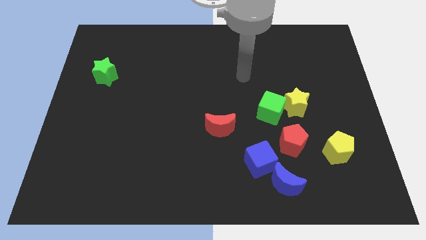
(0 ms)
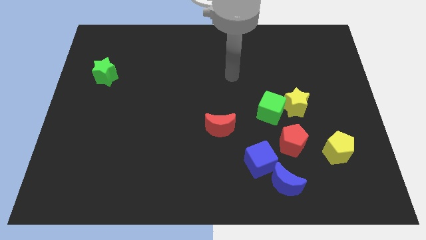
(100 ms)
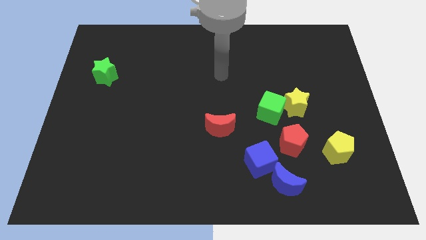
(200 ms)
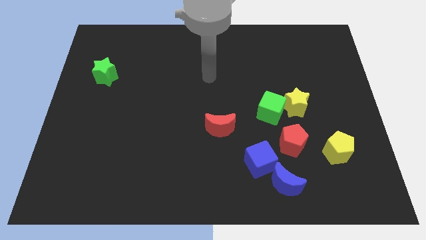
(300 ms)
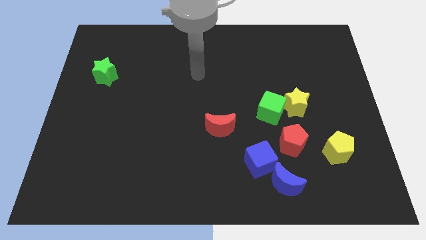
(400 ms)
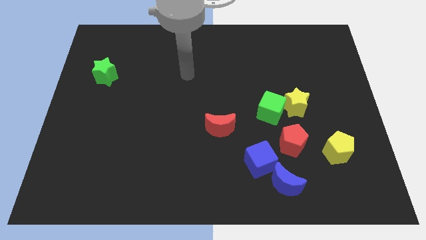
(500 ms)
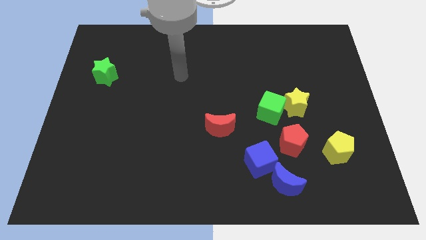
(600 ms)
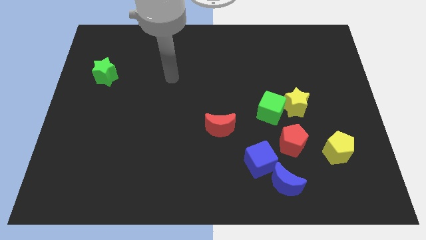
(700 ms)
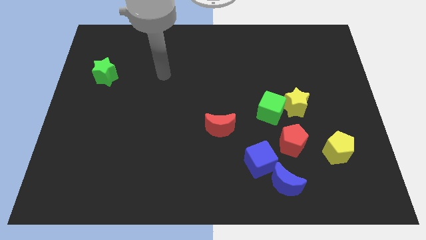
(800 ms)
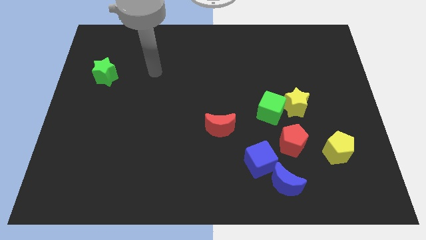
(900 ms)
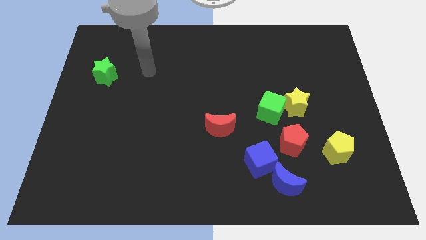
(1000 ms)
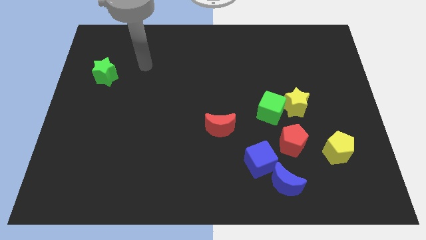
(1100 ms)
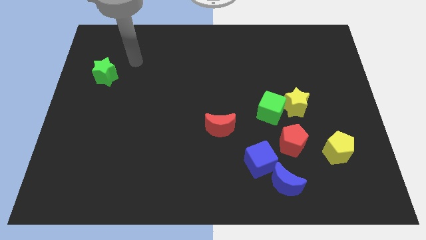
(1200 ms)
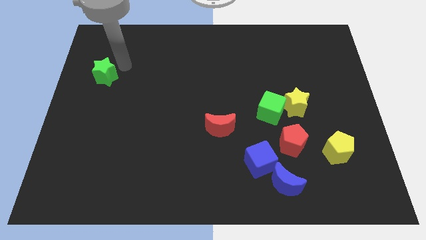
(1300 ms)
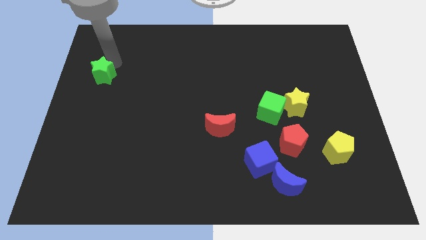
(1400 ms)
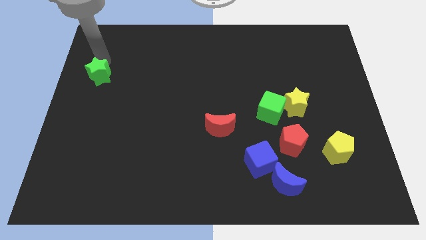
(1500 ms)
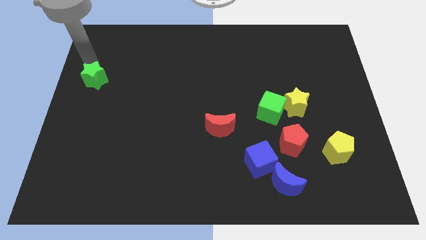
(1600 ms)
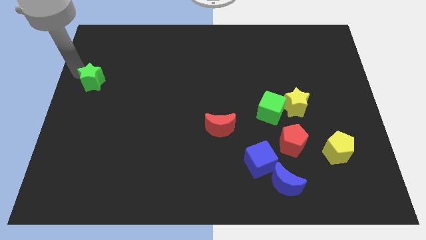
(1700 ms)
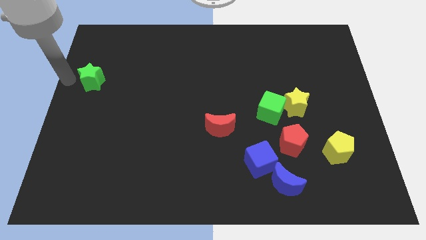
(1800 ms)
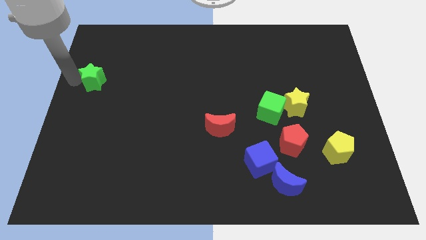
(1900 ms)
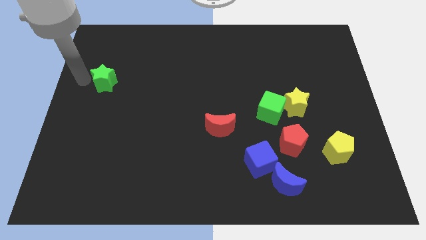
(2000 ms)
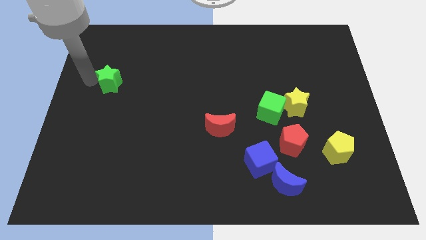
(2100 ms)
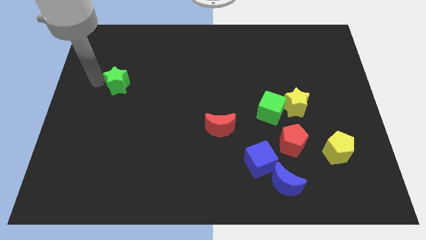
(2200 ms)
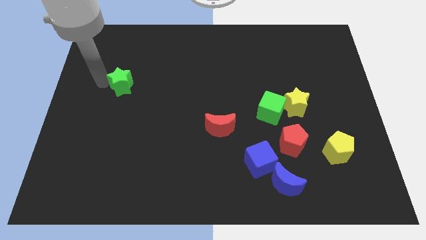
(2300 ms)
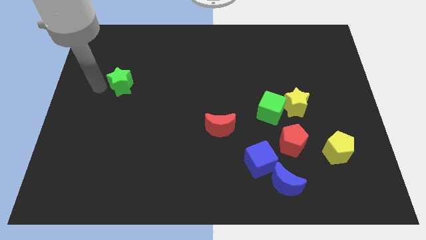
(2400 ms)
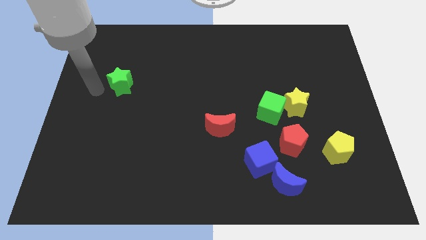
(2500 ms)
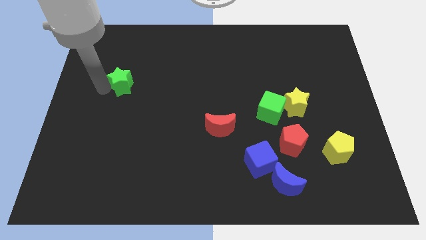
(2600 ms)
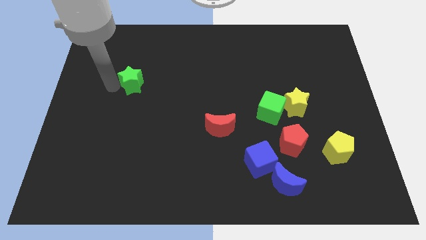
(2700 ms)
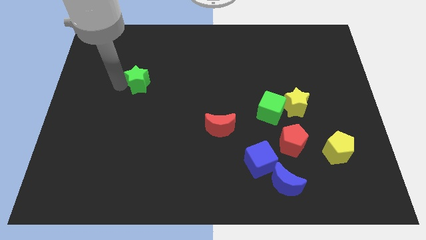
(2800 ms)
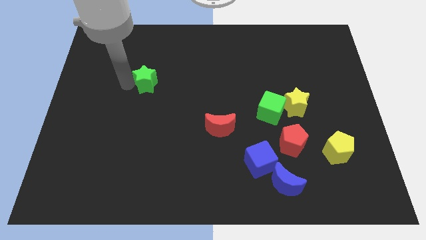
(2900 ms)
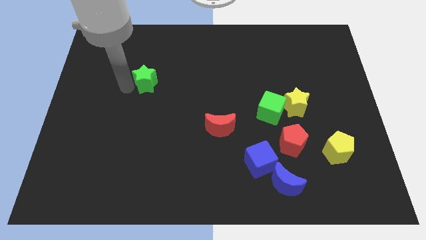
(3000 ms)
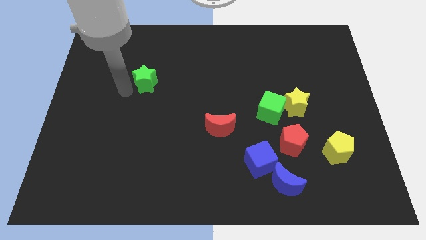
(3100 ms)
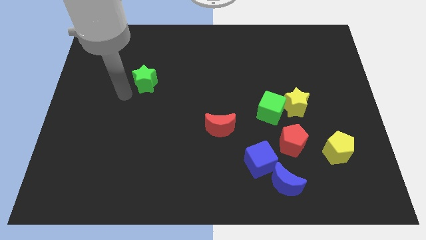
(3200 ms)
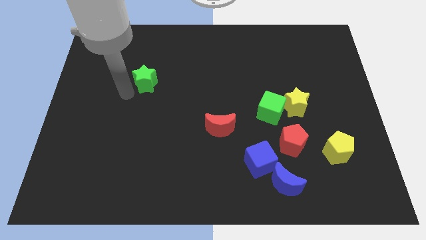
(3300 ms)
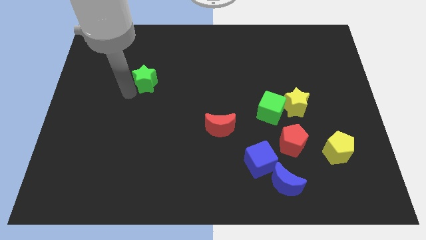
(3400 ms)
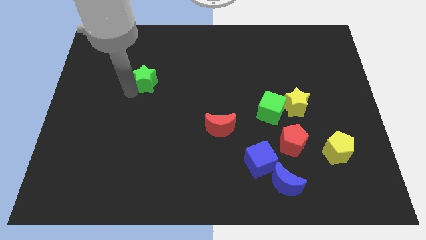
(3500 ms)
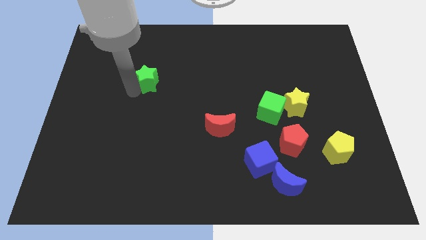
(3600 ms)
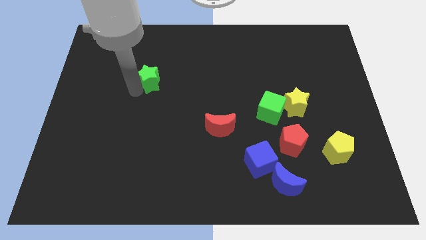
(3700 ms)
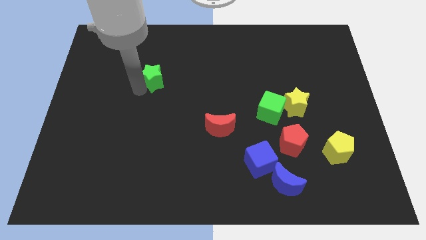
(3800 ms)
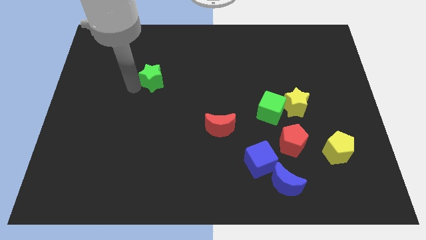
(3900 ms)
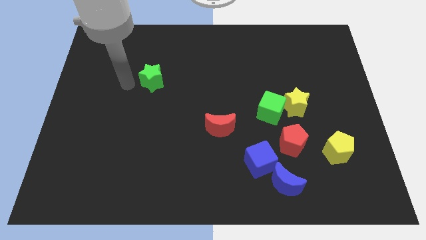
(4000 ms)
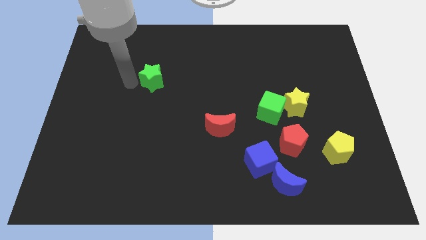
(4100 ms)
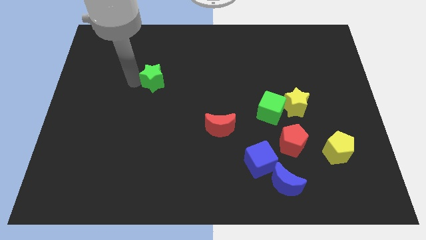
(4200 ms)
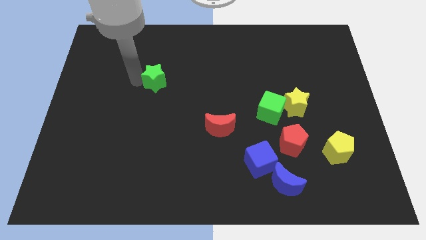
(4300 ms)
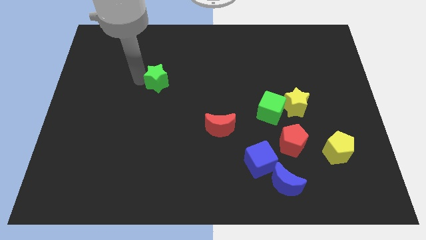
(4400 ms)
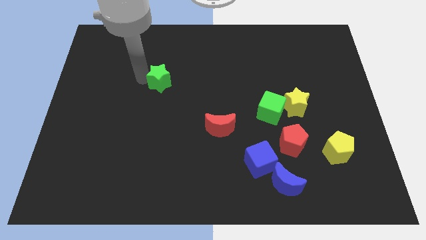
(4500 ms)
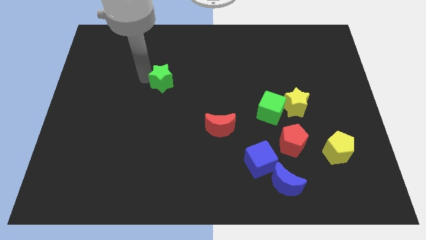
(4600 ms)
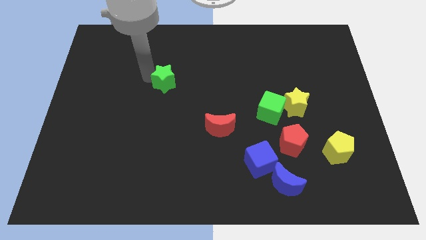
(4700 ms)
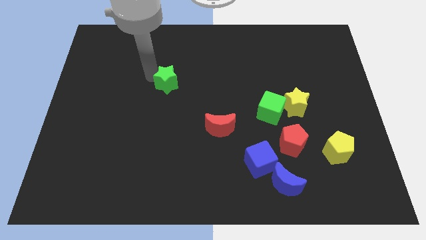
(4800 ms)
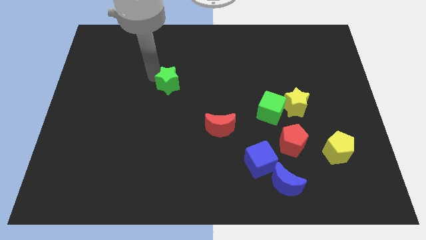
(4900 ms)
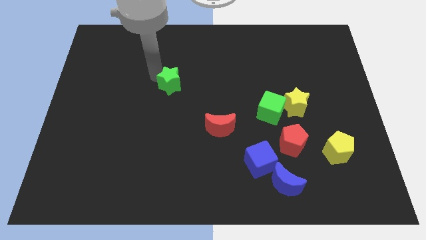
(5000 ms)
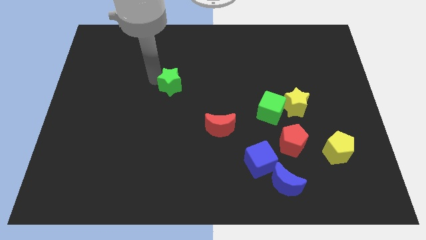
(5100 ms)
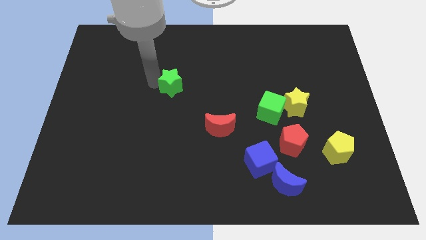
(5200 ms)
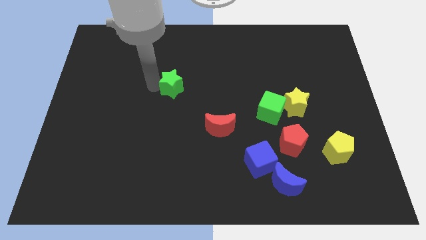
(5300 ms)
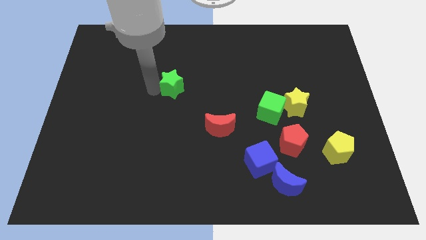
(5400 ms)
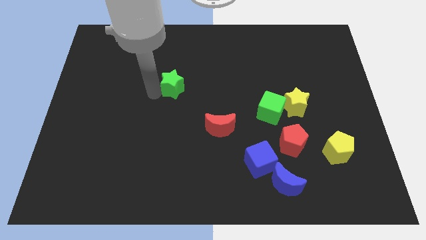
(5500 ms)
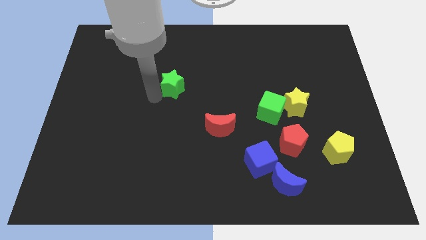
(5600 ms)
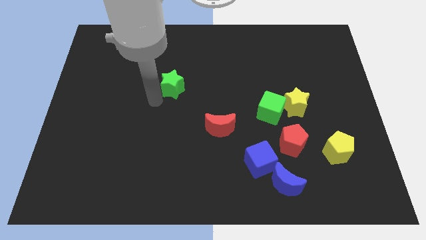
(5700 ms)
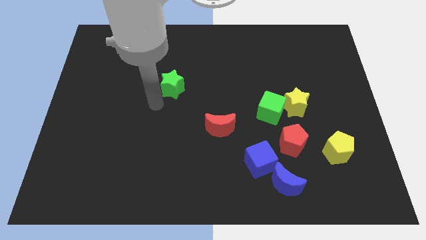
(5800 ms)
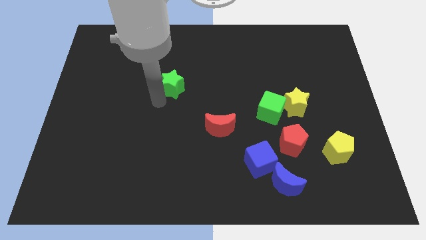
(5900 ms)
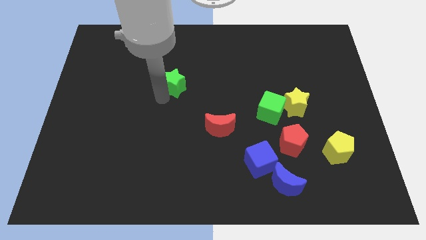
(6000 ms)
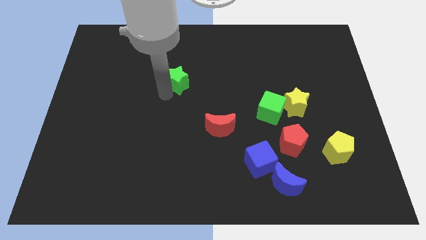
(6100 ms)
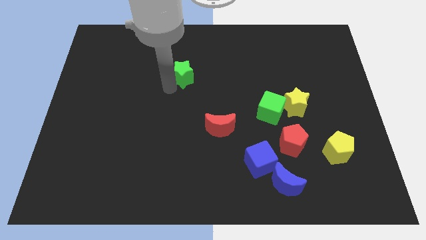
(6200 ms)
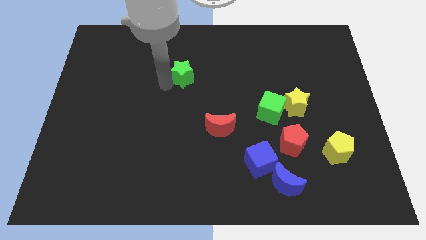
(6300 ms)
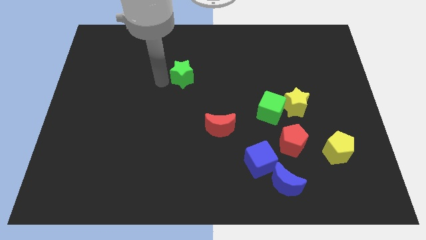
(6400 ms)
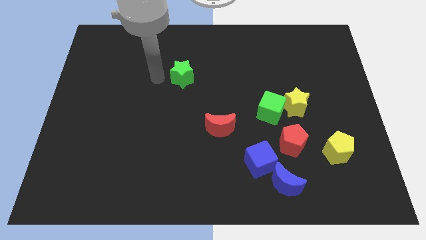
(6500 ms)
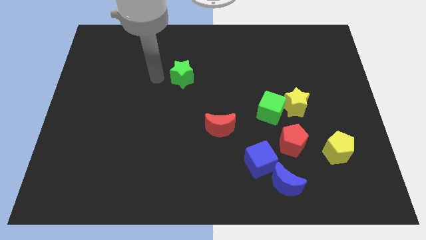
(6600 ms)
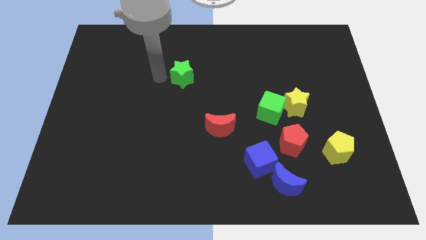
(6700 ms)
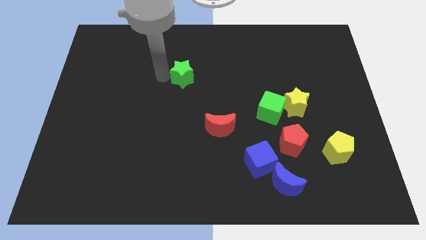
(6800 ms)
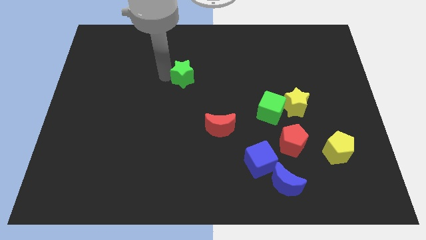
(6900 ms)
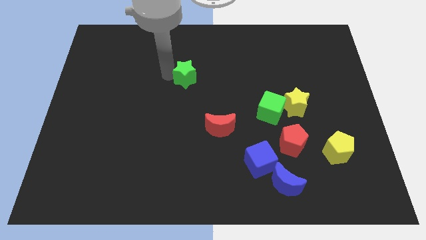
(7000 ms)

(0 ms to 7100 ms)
slide the green star right

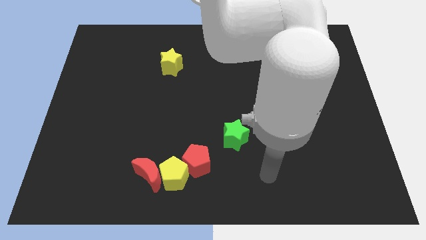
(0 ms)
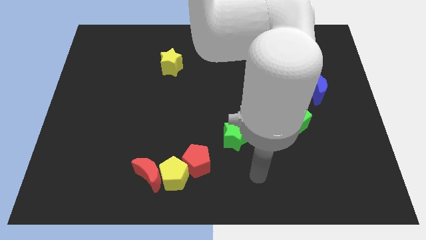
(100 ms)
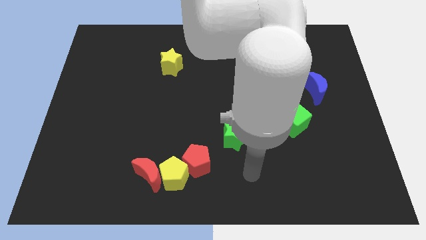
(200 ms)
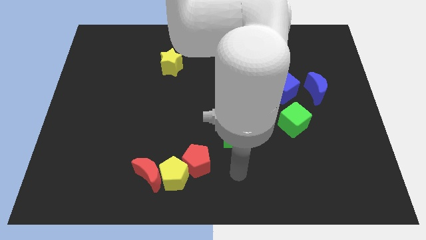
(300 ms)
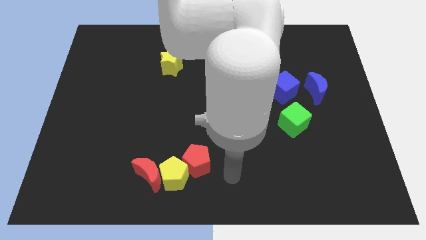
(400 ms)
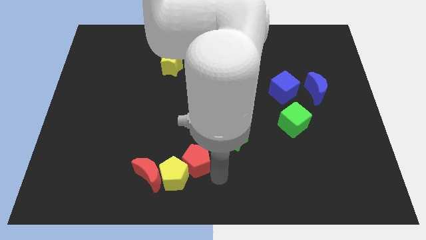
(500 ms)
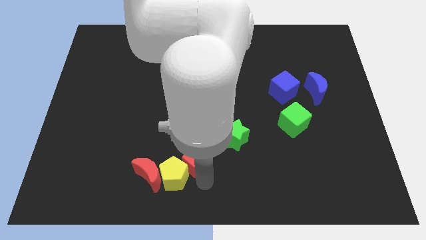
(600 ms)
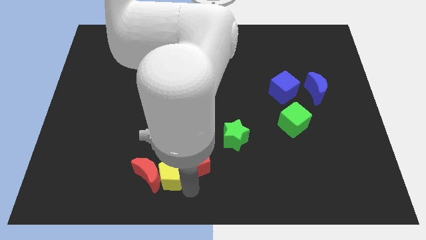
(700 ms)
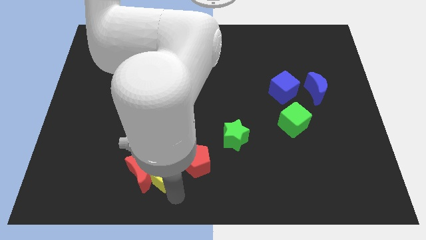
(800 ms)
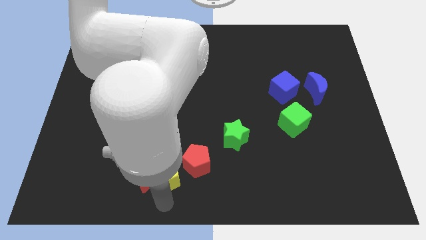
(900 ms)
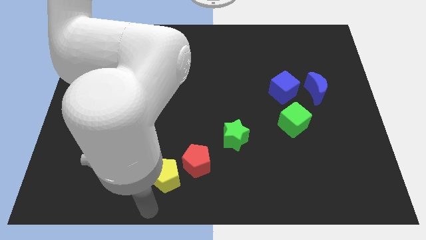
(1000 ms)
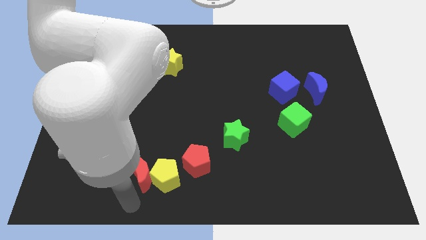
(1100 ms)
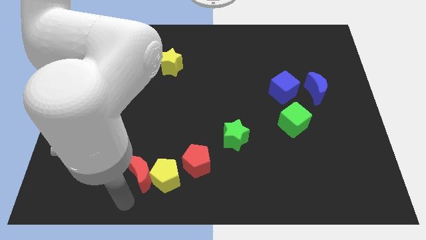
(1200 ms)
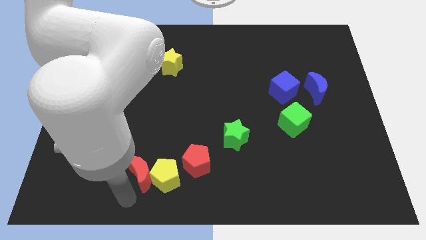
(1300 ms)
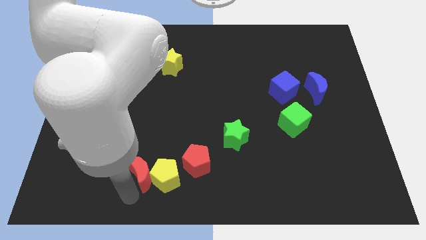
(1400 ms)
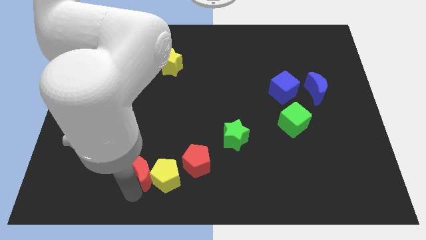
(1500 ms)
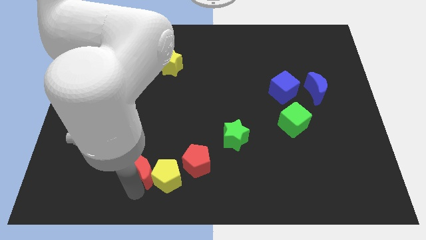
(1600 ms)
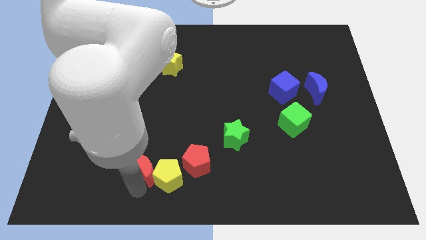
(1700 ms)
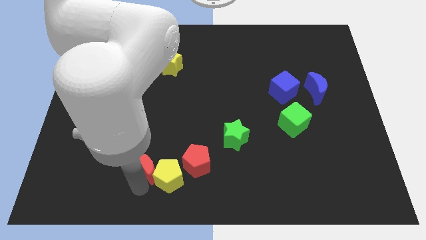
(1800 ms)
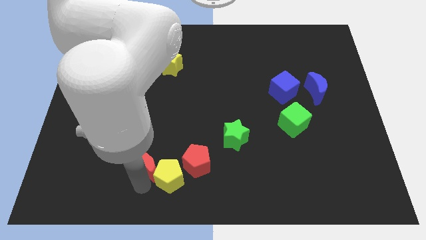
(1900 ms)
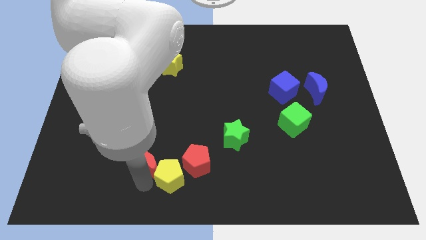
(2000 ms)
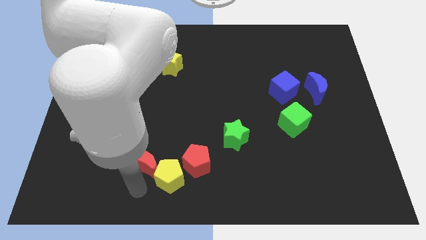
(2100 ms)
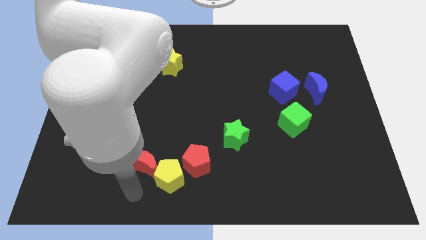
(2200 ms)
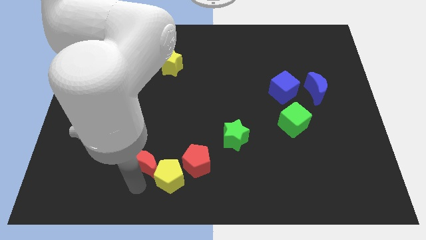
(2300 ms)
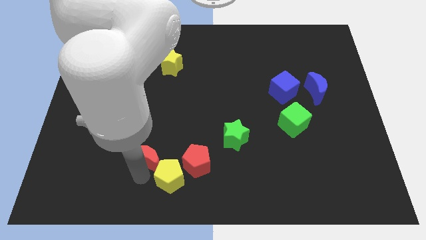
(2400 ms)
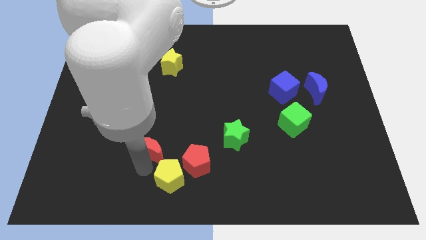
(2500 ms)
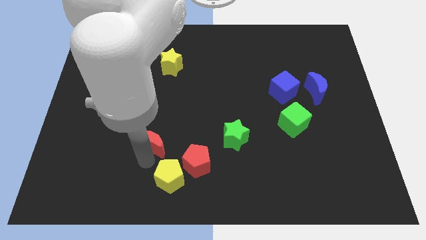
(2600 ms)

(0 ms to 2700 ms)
slide the red moon up a little
